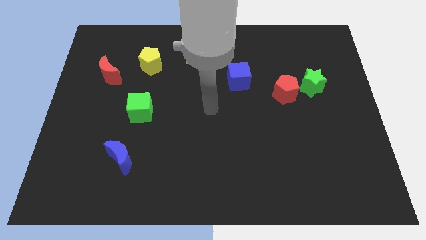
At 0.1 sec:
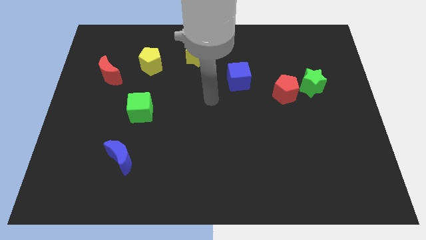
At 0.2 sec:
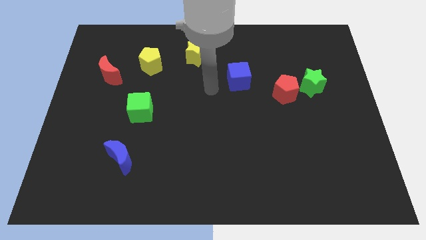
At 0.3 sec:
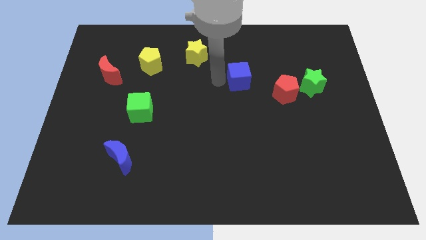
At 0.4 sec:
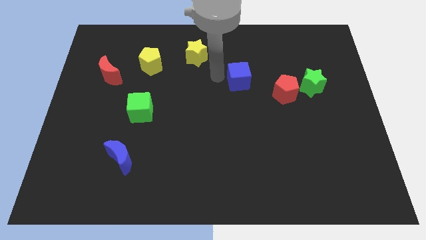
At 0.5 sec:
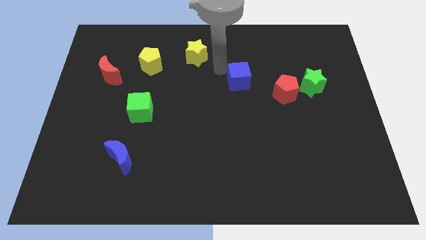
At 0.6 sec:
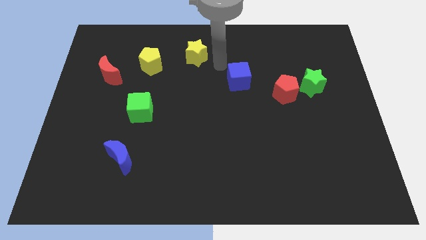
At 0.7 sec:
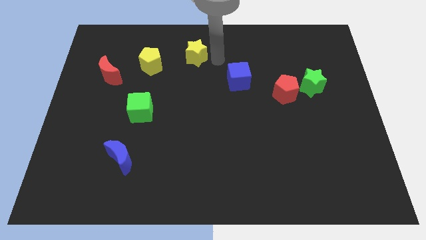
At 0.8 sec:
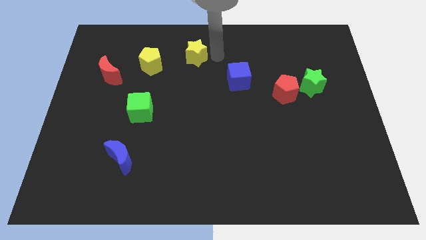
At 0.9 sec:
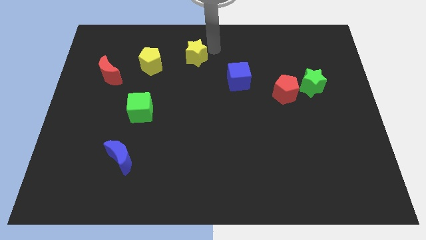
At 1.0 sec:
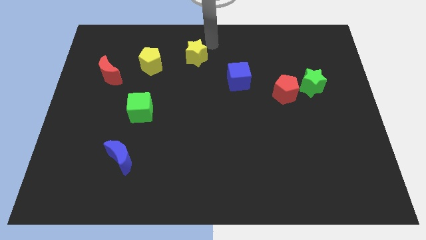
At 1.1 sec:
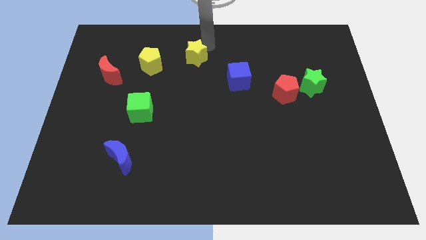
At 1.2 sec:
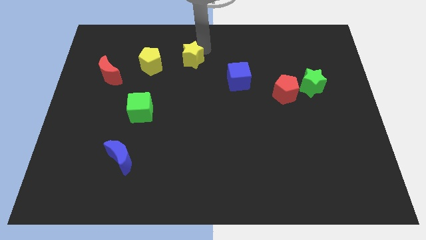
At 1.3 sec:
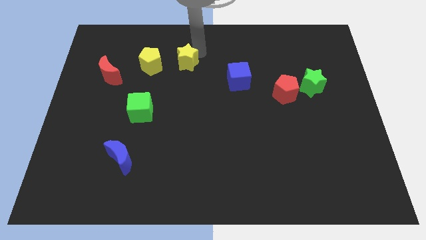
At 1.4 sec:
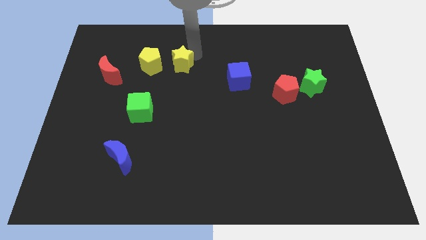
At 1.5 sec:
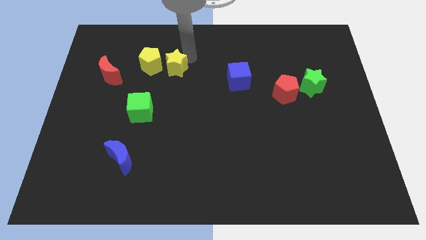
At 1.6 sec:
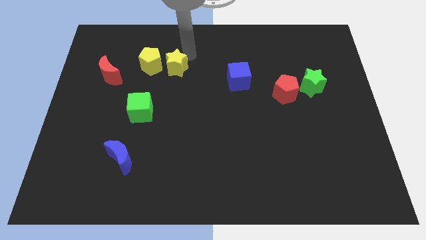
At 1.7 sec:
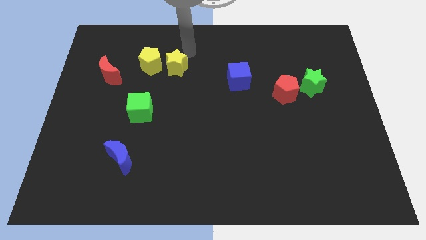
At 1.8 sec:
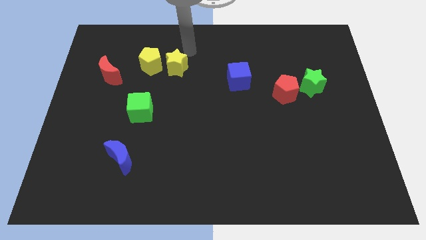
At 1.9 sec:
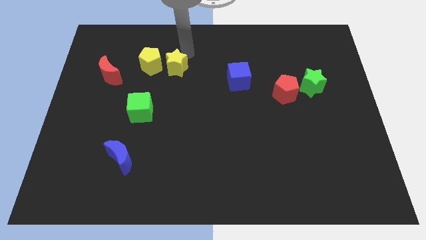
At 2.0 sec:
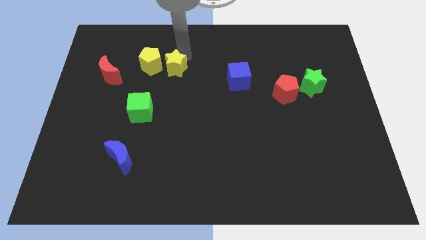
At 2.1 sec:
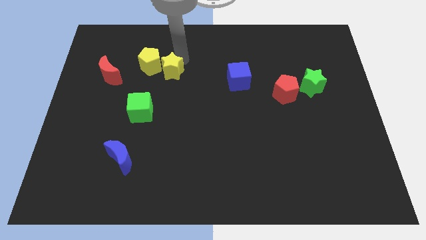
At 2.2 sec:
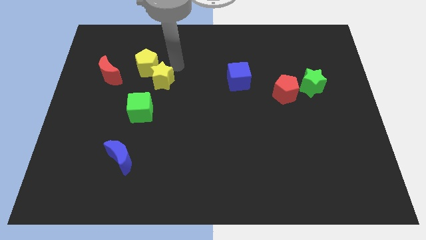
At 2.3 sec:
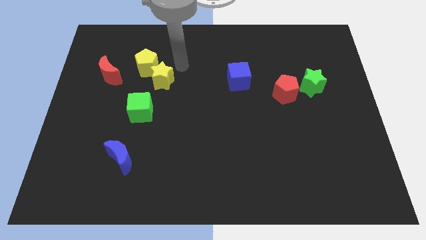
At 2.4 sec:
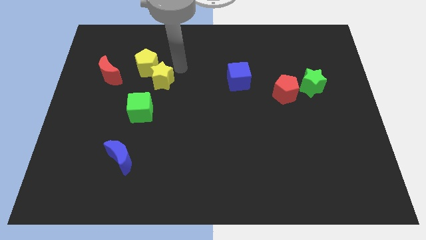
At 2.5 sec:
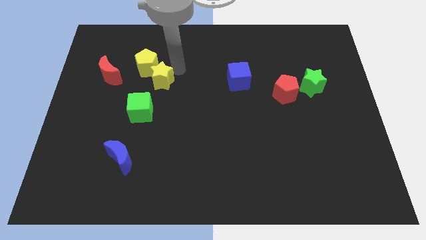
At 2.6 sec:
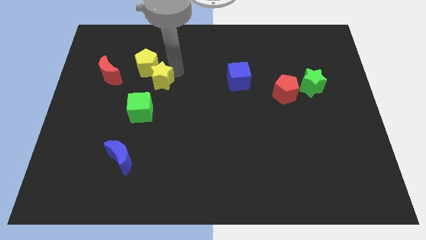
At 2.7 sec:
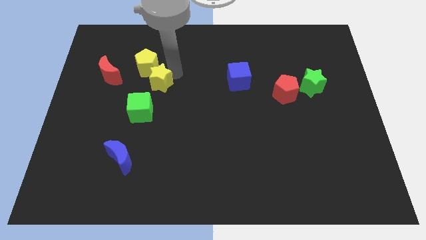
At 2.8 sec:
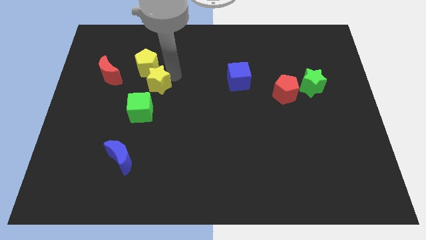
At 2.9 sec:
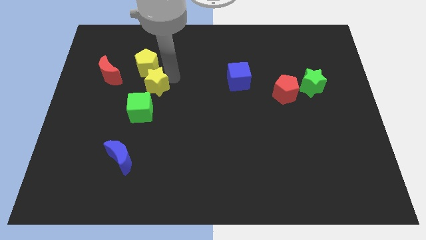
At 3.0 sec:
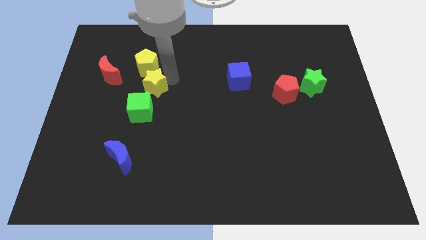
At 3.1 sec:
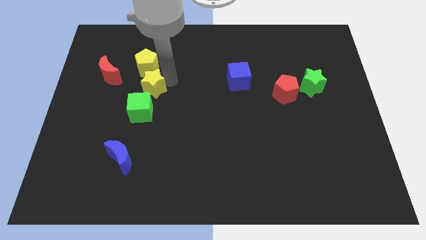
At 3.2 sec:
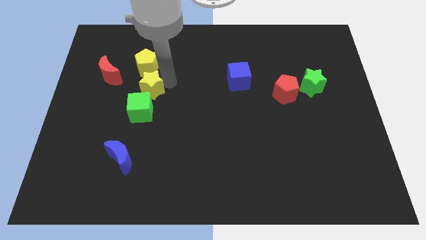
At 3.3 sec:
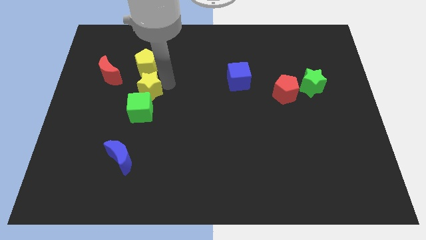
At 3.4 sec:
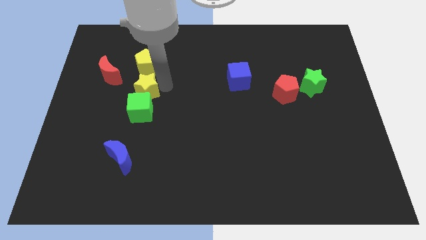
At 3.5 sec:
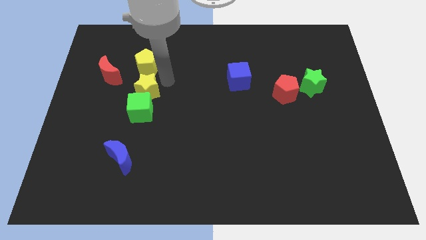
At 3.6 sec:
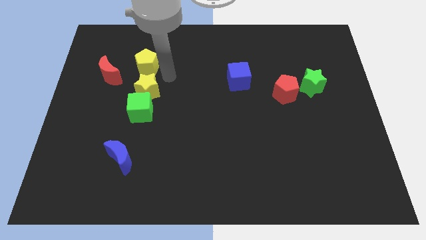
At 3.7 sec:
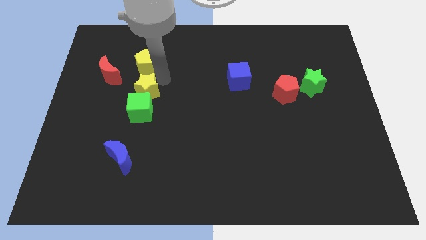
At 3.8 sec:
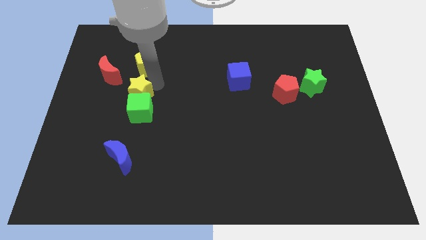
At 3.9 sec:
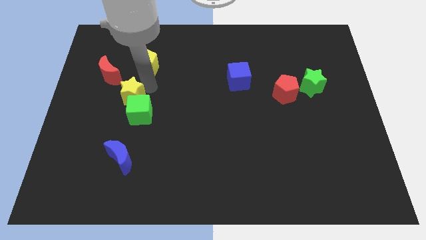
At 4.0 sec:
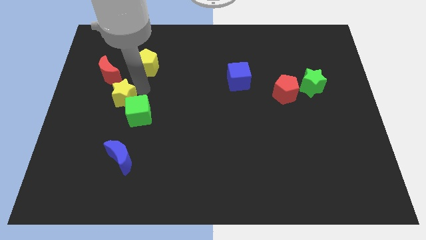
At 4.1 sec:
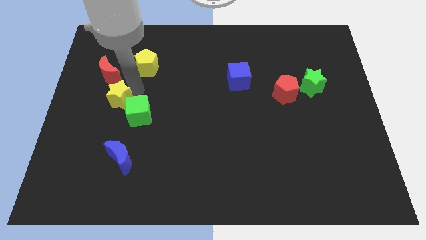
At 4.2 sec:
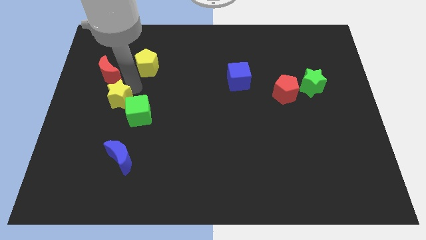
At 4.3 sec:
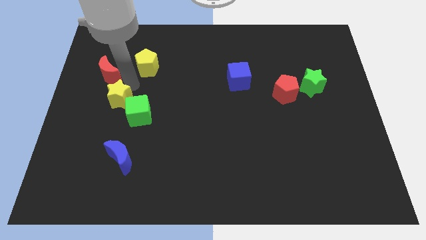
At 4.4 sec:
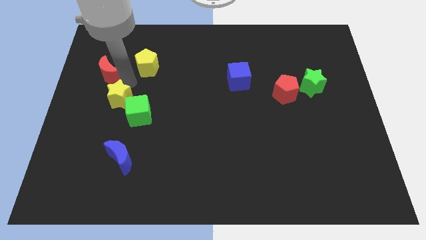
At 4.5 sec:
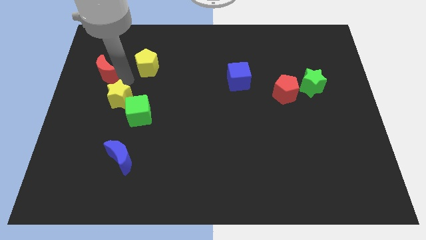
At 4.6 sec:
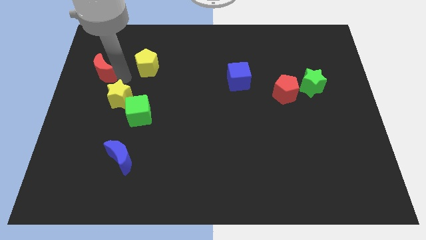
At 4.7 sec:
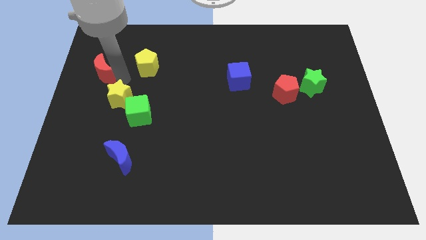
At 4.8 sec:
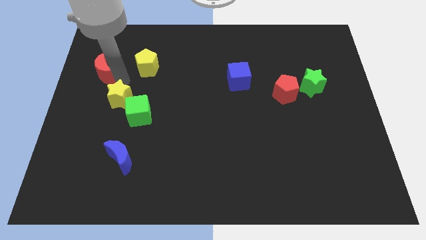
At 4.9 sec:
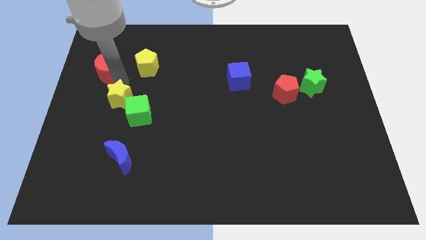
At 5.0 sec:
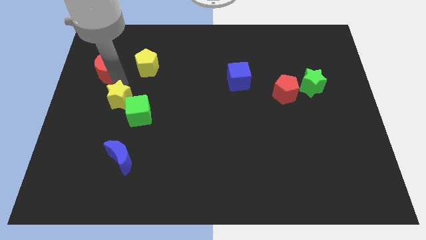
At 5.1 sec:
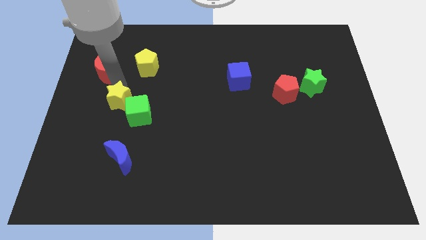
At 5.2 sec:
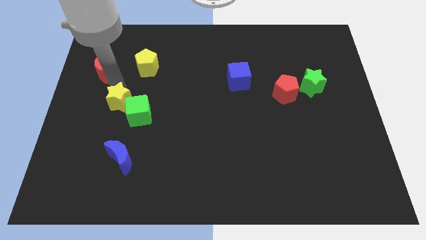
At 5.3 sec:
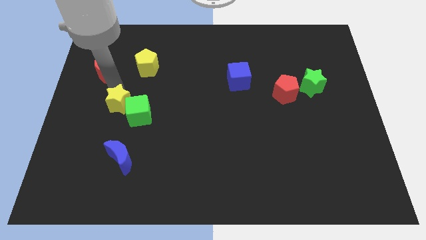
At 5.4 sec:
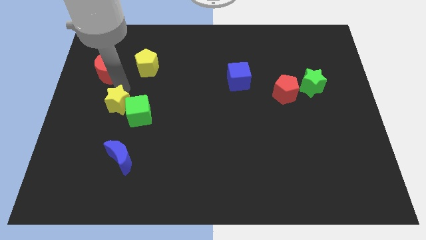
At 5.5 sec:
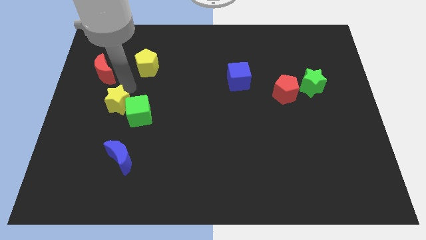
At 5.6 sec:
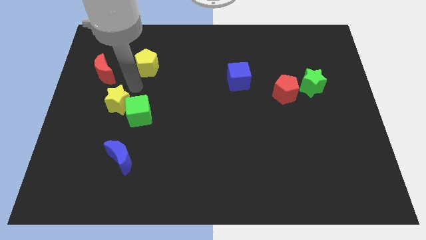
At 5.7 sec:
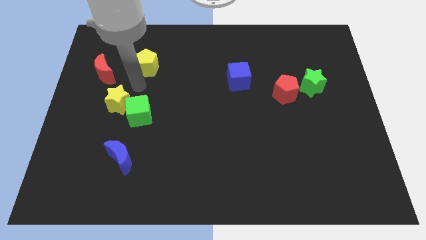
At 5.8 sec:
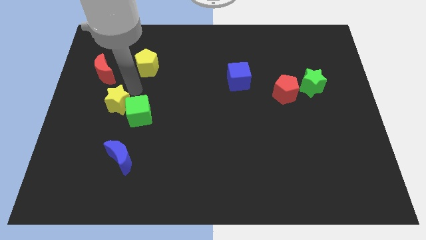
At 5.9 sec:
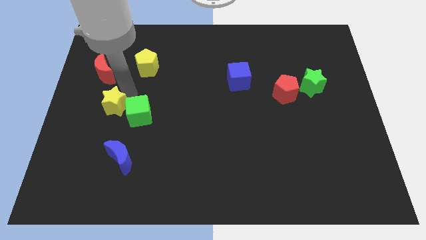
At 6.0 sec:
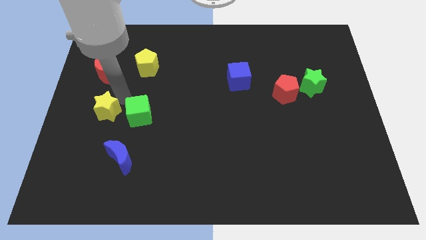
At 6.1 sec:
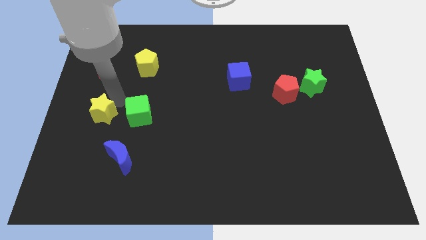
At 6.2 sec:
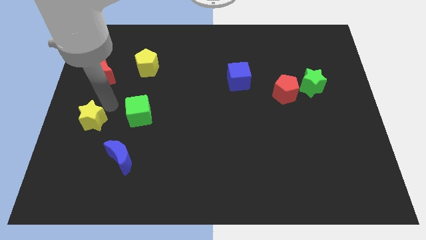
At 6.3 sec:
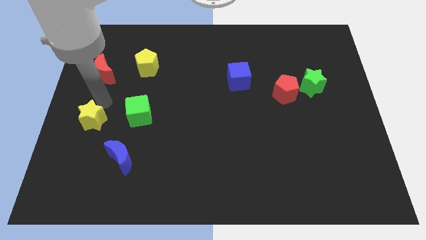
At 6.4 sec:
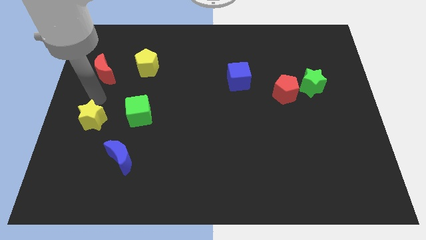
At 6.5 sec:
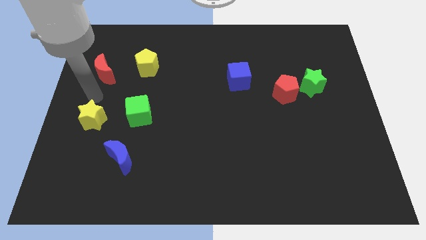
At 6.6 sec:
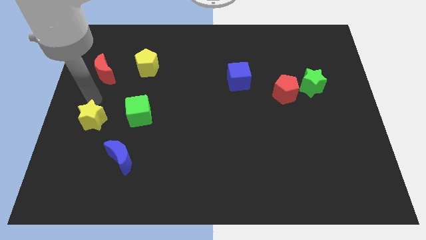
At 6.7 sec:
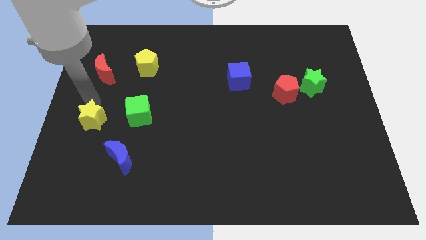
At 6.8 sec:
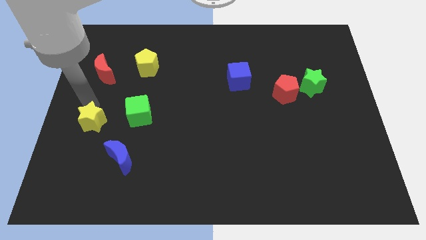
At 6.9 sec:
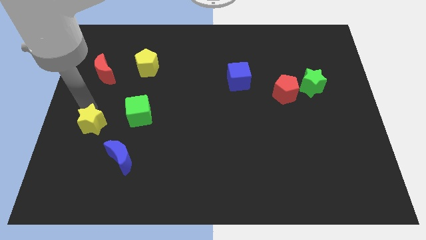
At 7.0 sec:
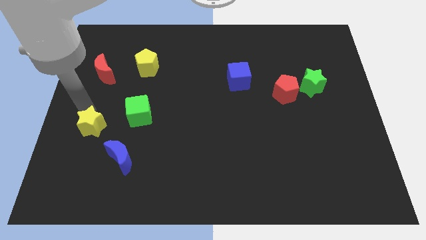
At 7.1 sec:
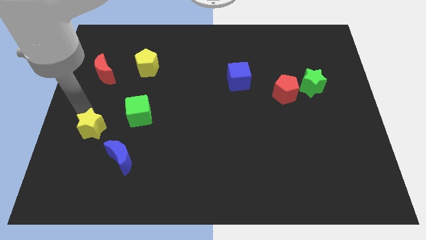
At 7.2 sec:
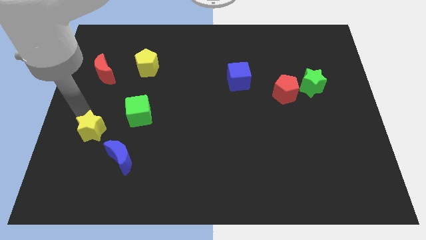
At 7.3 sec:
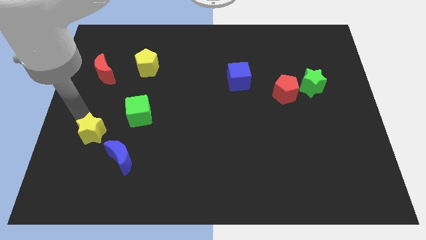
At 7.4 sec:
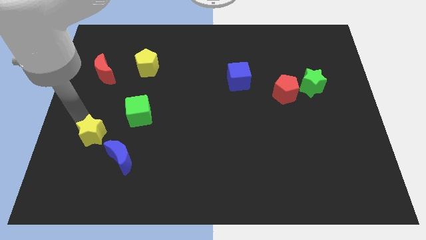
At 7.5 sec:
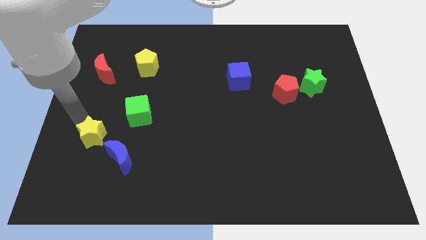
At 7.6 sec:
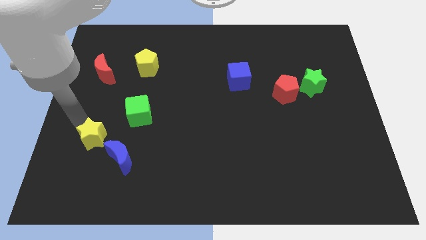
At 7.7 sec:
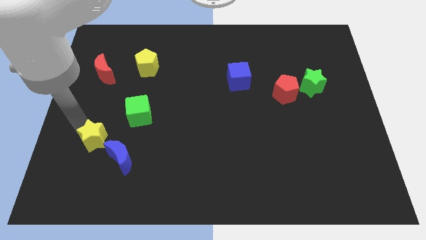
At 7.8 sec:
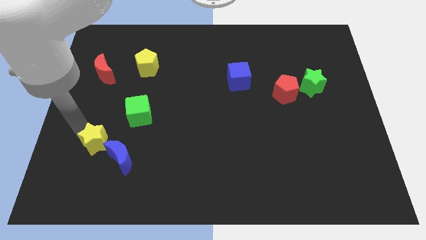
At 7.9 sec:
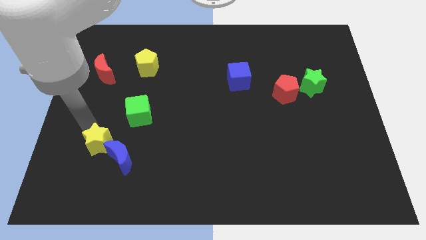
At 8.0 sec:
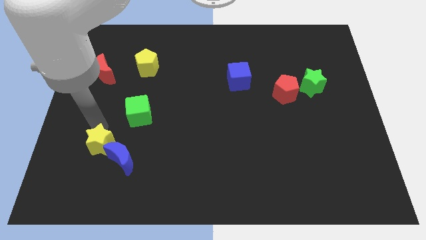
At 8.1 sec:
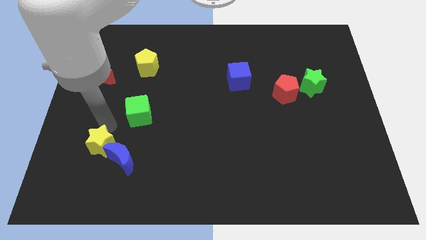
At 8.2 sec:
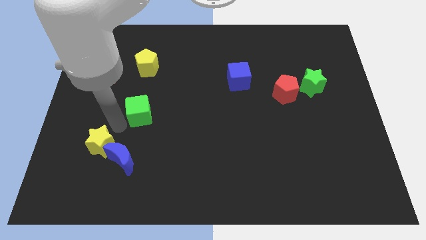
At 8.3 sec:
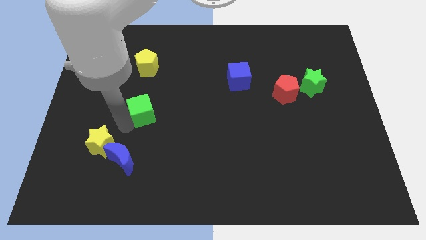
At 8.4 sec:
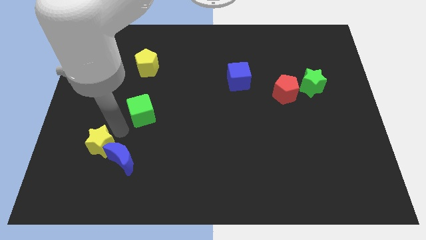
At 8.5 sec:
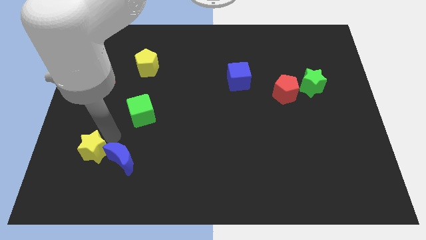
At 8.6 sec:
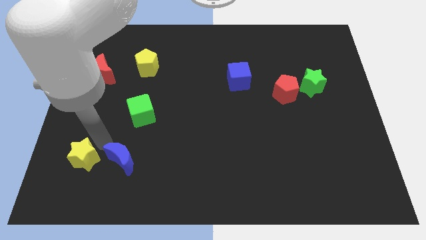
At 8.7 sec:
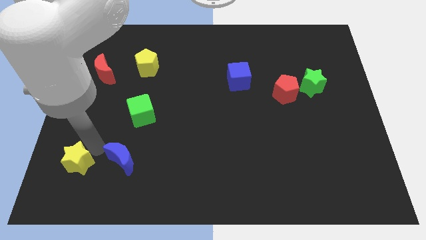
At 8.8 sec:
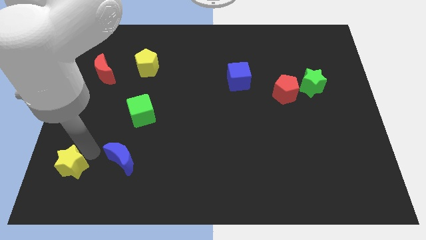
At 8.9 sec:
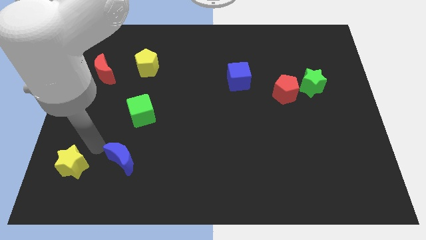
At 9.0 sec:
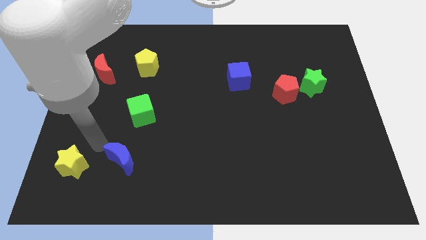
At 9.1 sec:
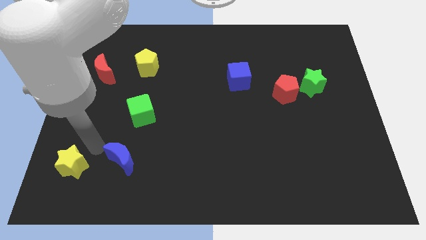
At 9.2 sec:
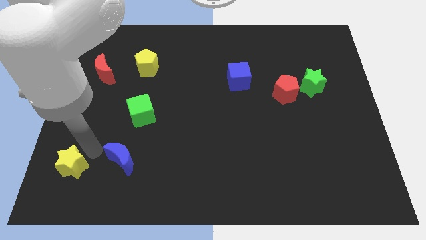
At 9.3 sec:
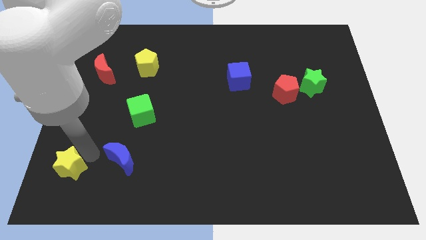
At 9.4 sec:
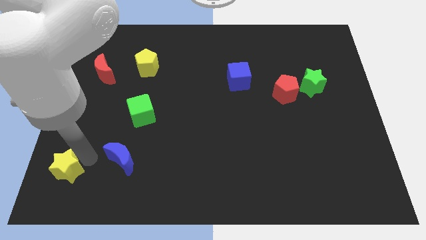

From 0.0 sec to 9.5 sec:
put the yellow star to the bottom left
